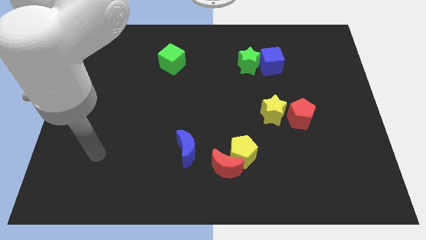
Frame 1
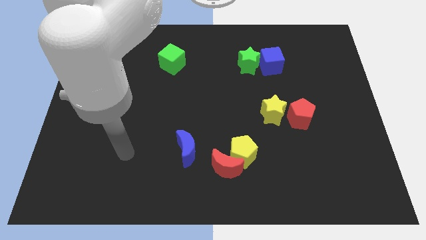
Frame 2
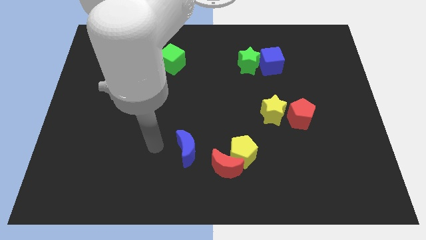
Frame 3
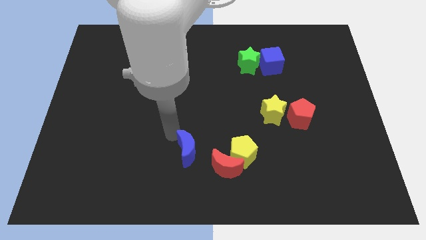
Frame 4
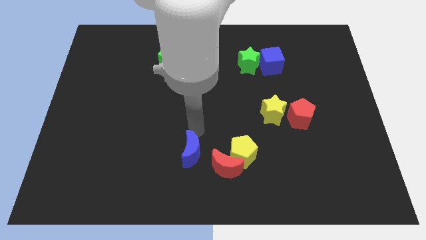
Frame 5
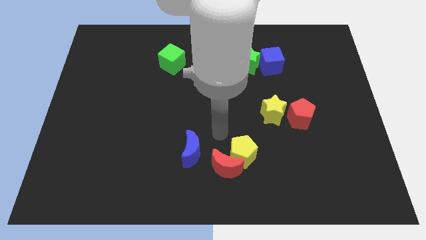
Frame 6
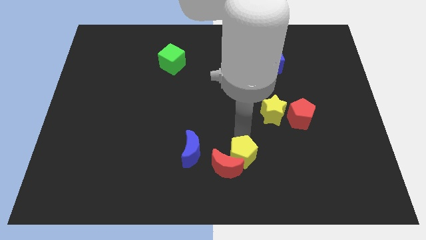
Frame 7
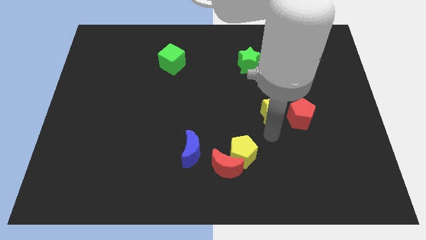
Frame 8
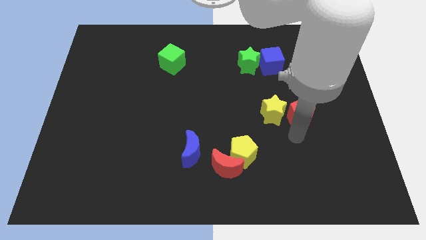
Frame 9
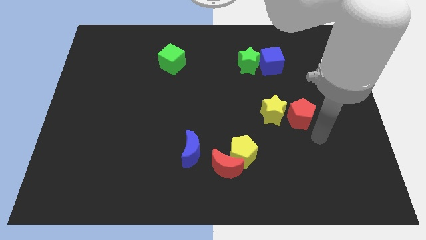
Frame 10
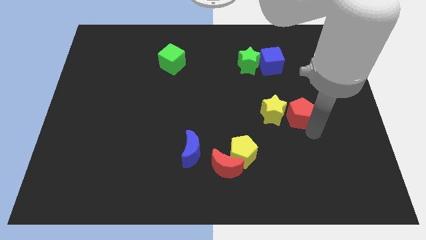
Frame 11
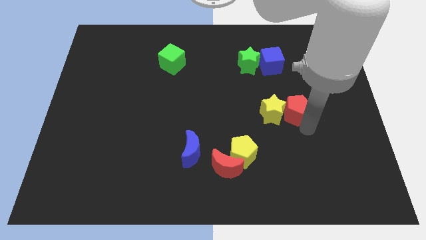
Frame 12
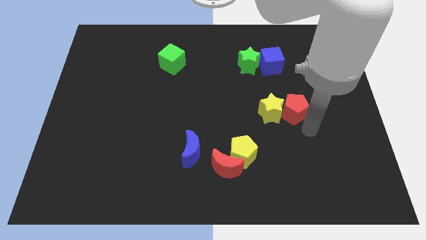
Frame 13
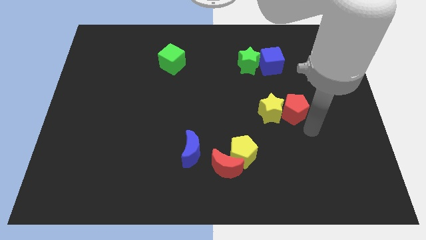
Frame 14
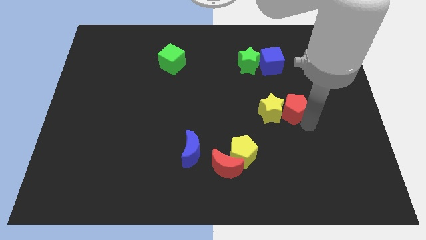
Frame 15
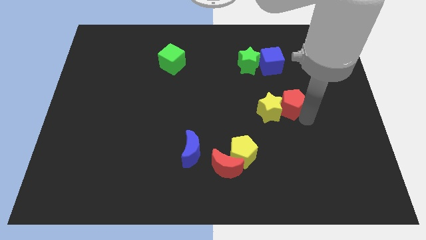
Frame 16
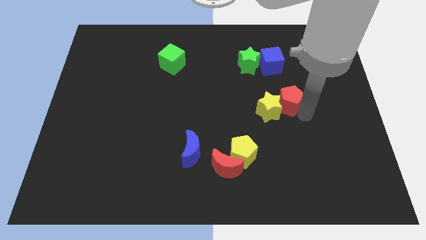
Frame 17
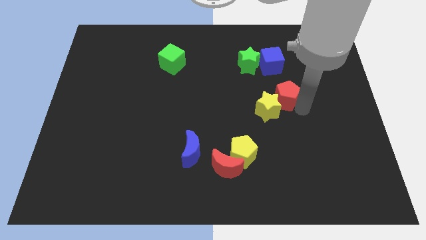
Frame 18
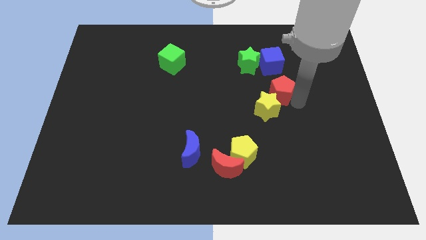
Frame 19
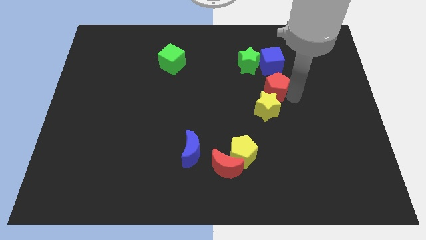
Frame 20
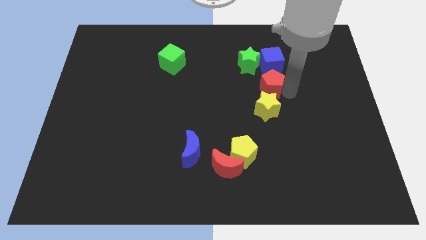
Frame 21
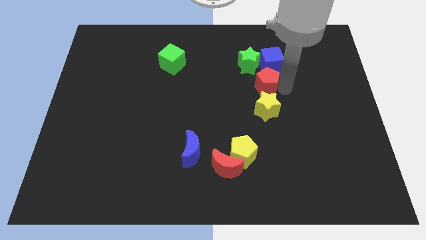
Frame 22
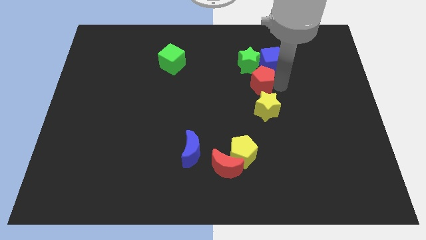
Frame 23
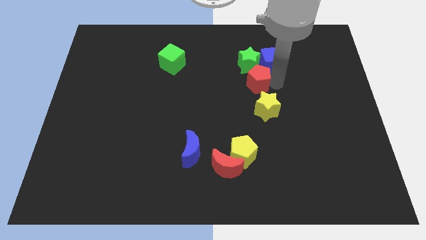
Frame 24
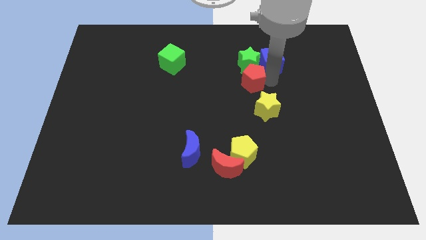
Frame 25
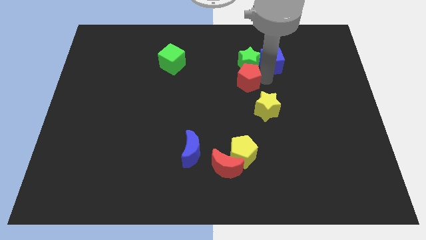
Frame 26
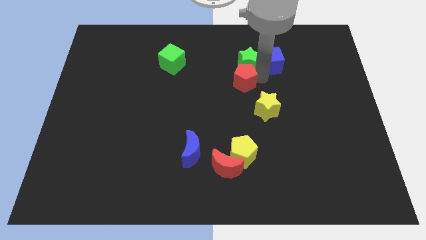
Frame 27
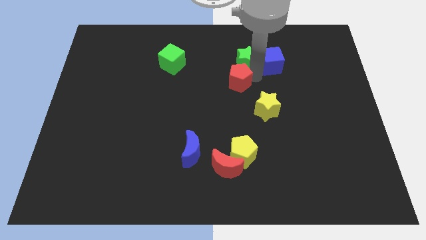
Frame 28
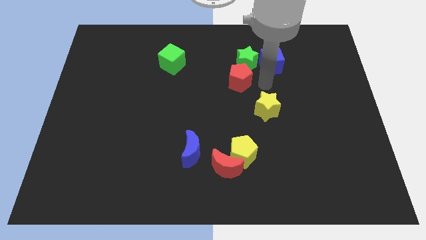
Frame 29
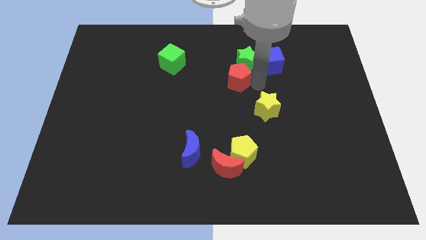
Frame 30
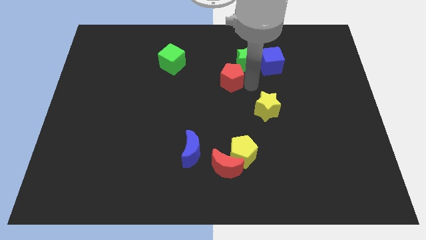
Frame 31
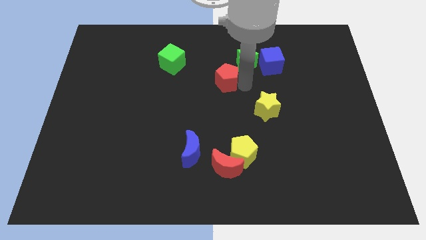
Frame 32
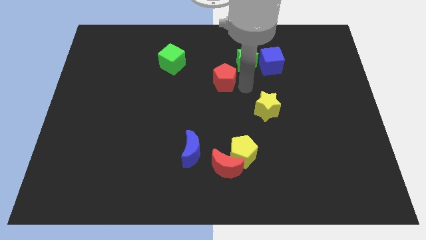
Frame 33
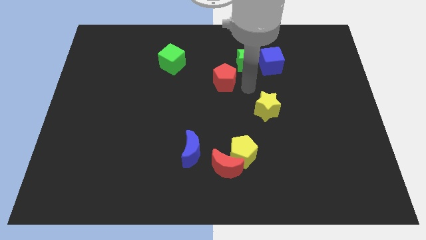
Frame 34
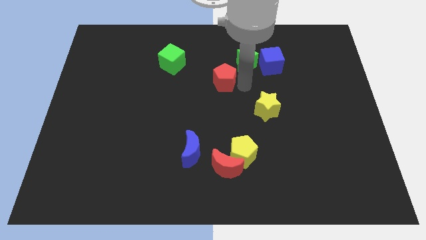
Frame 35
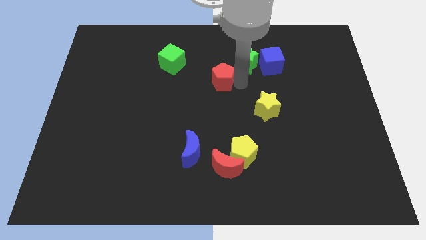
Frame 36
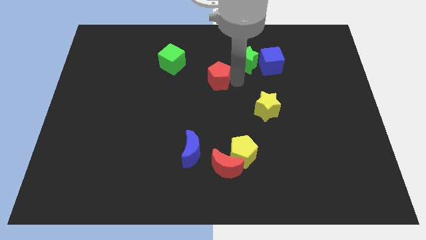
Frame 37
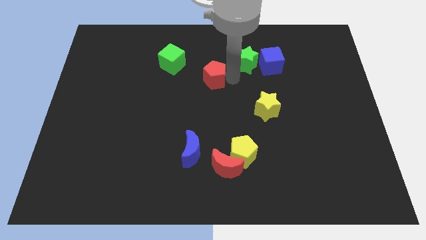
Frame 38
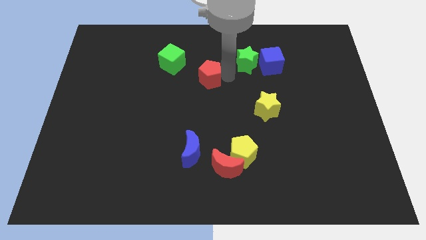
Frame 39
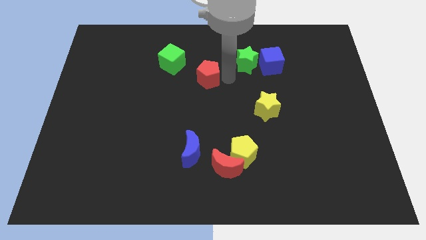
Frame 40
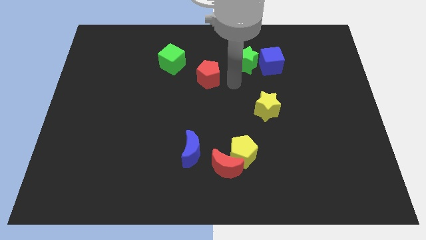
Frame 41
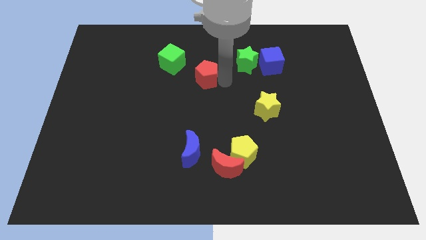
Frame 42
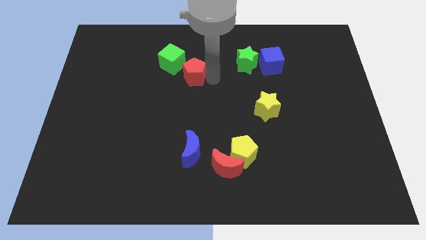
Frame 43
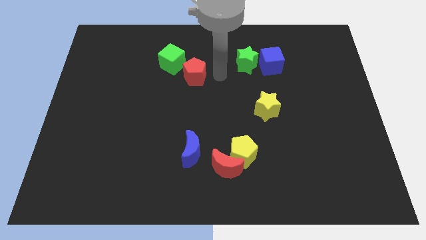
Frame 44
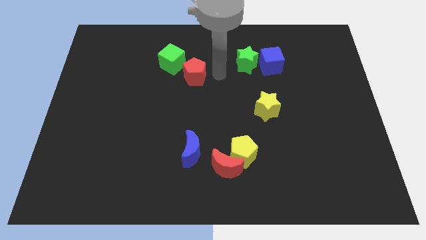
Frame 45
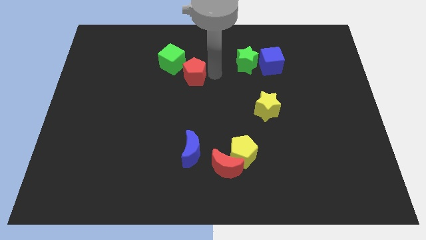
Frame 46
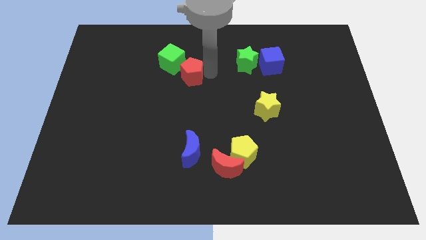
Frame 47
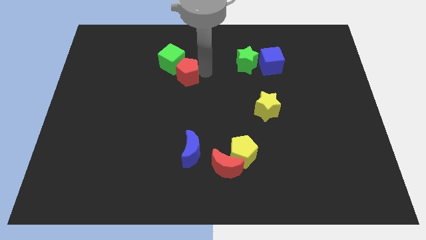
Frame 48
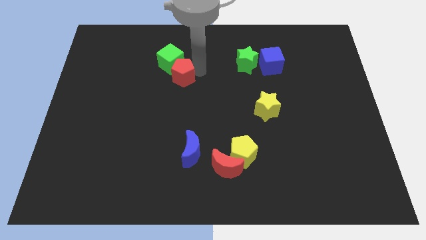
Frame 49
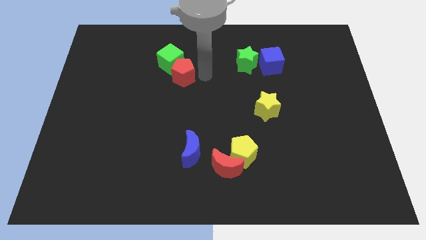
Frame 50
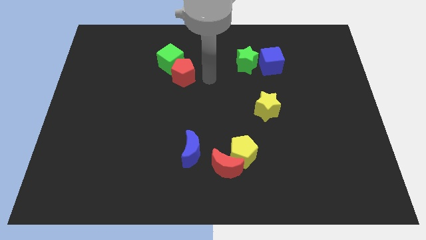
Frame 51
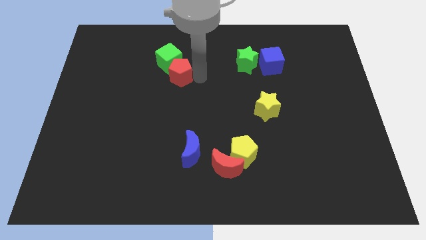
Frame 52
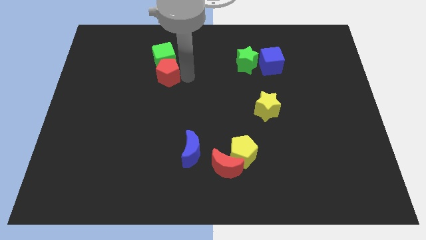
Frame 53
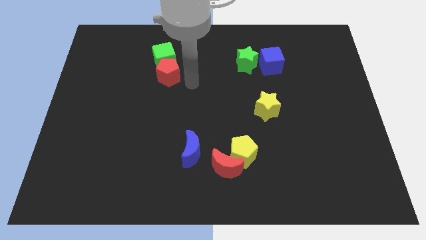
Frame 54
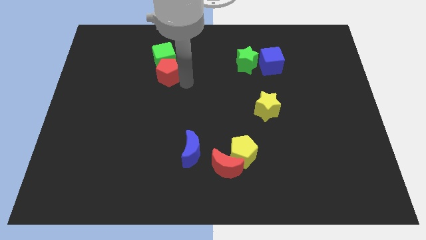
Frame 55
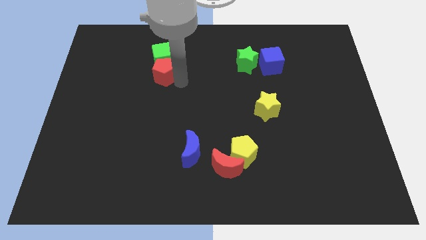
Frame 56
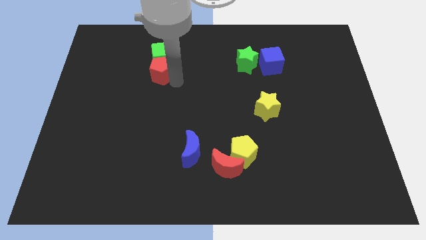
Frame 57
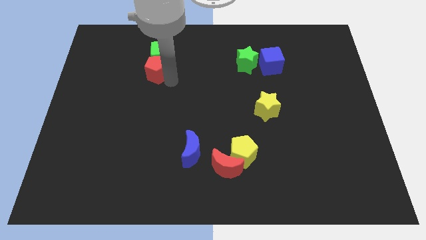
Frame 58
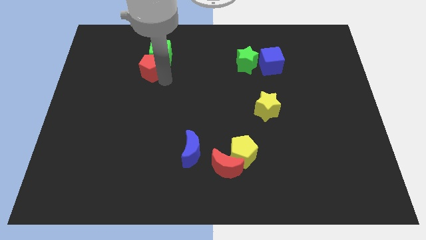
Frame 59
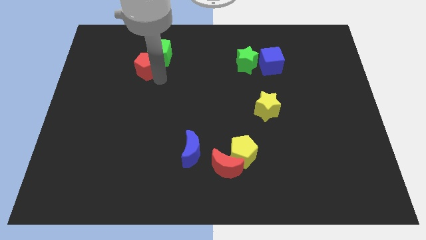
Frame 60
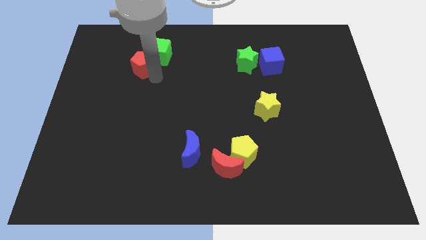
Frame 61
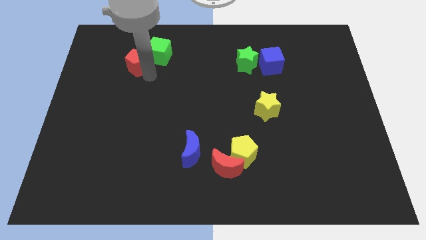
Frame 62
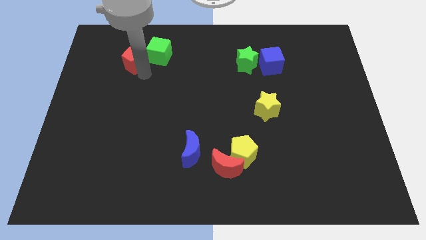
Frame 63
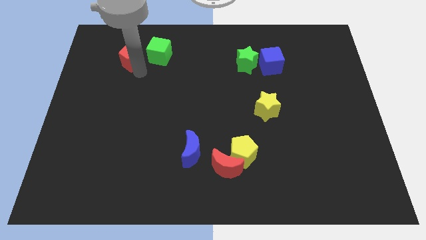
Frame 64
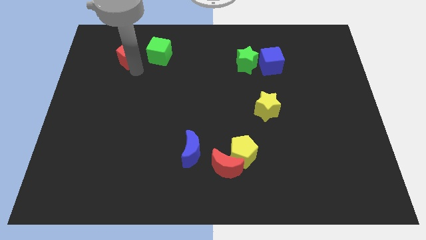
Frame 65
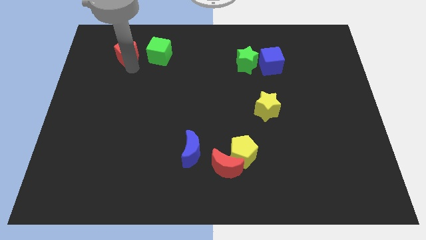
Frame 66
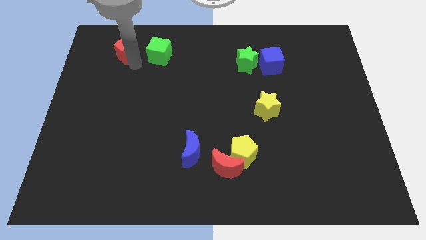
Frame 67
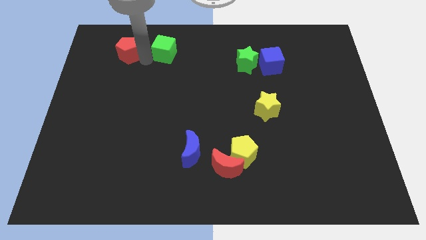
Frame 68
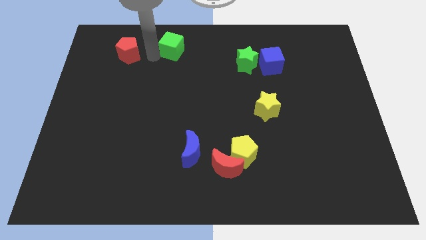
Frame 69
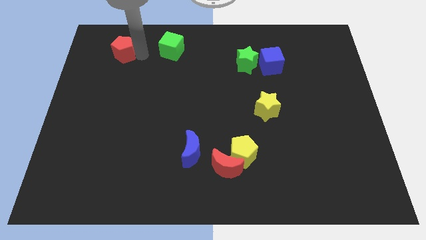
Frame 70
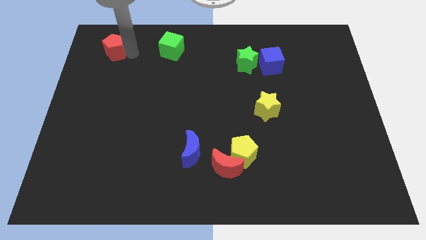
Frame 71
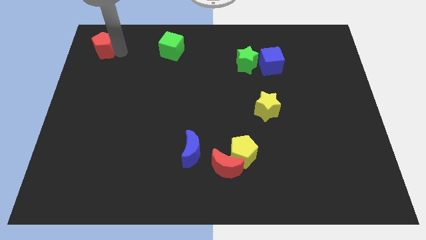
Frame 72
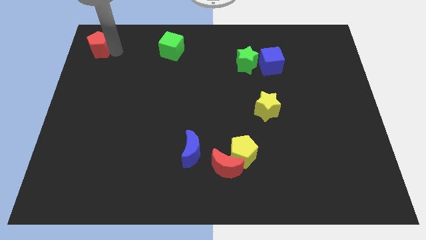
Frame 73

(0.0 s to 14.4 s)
move the red pentagon to the top left of the board
